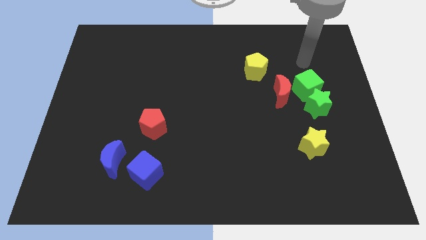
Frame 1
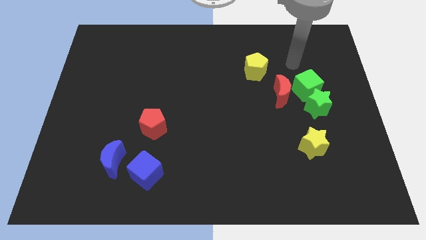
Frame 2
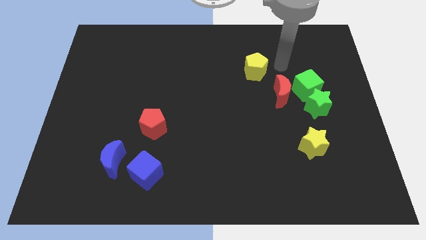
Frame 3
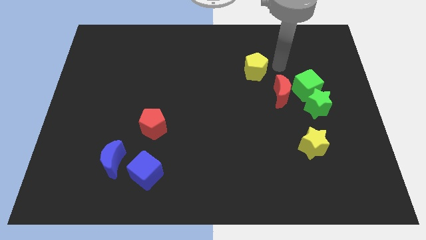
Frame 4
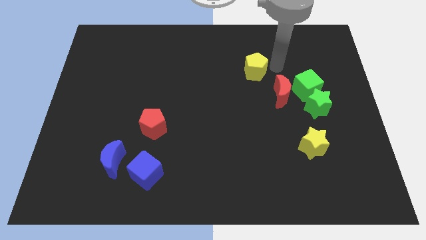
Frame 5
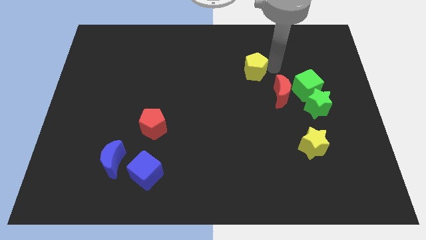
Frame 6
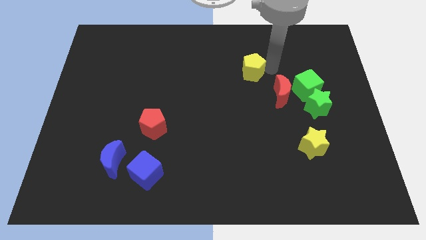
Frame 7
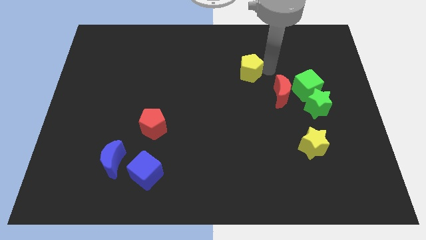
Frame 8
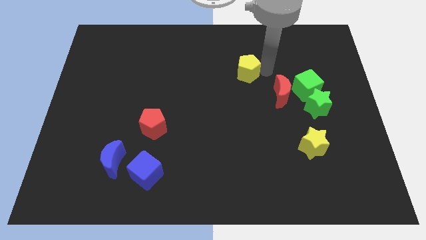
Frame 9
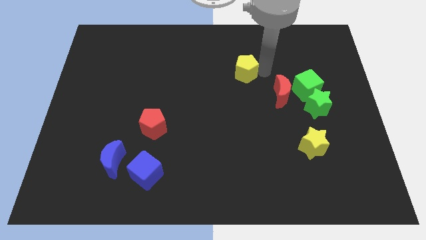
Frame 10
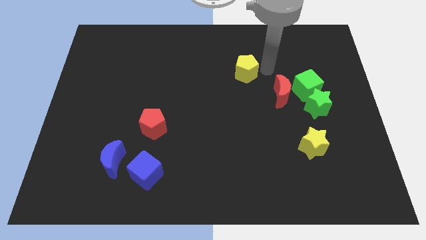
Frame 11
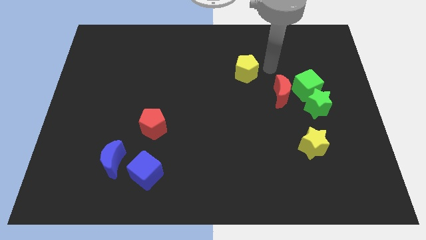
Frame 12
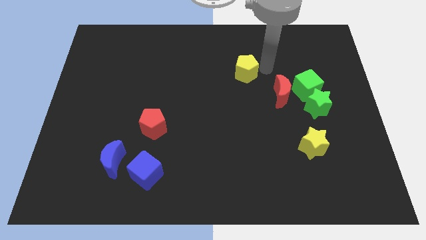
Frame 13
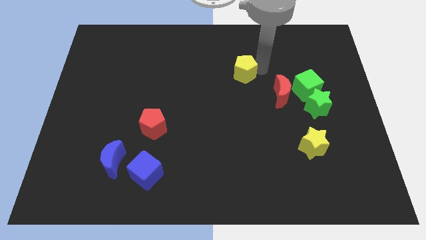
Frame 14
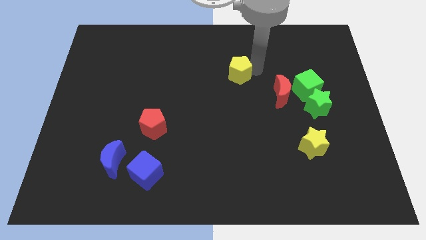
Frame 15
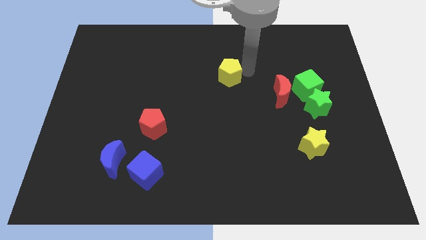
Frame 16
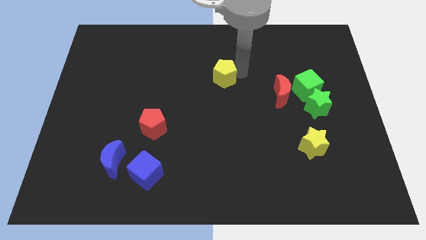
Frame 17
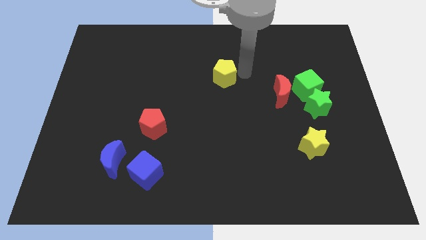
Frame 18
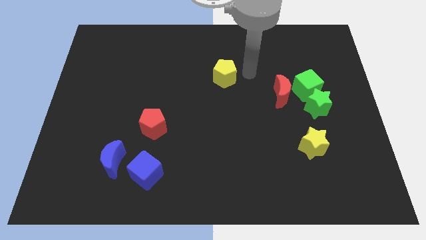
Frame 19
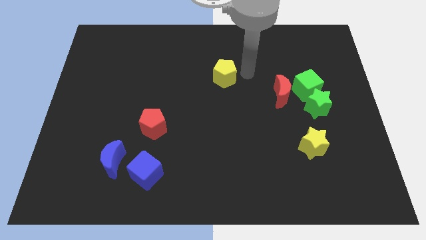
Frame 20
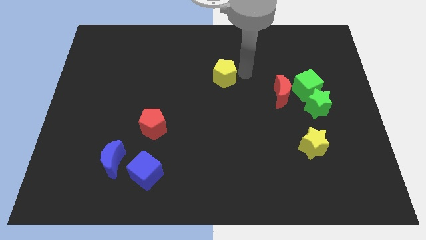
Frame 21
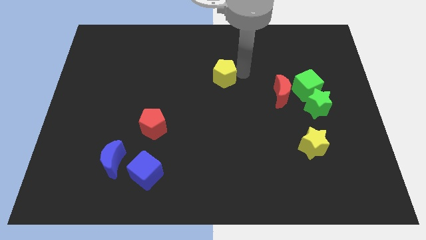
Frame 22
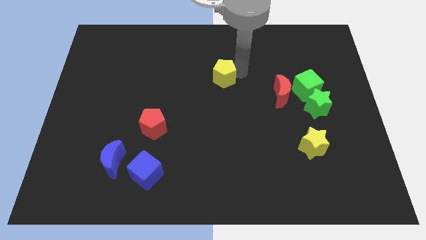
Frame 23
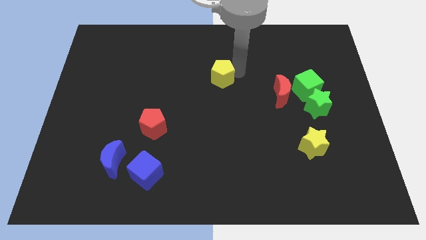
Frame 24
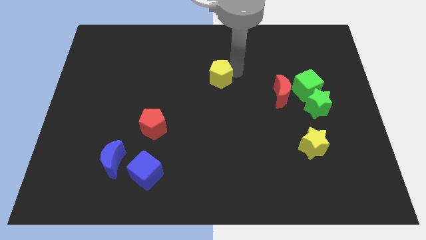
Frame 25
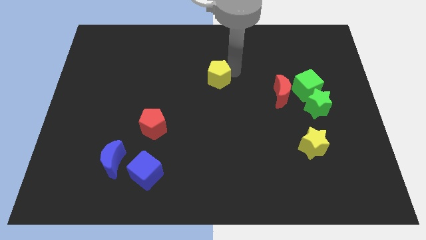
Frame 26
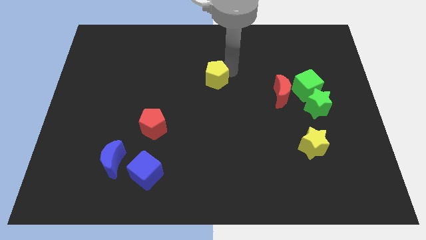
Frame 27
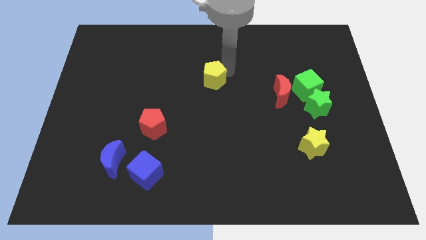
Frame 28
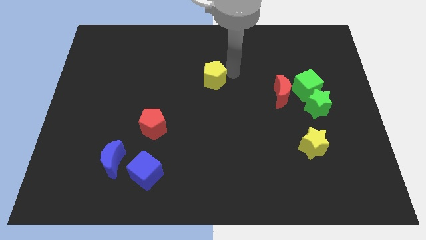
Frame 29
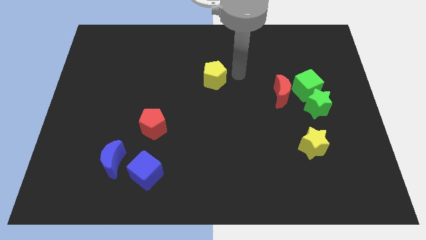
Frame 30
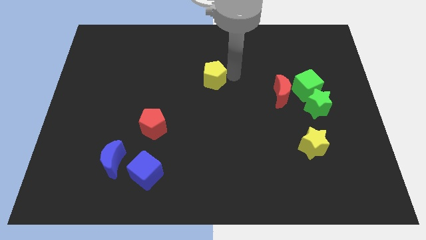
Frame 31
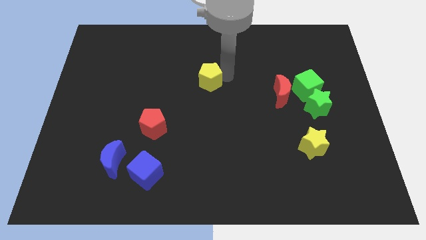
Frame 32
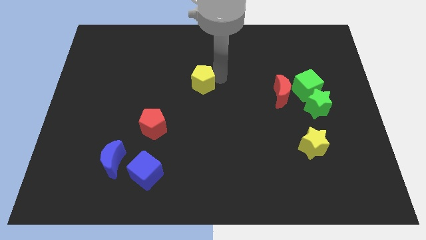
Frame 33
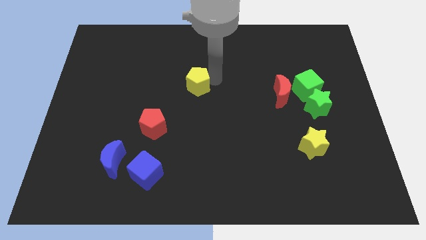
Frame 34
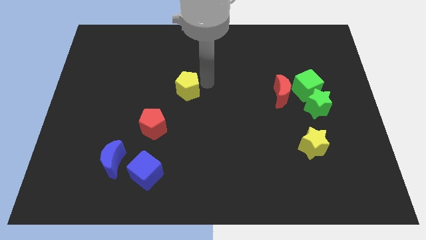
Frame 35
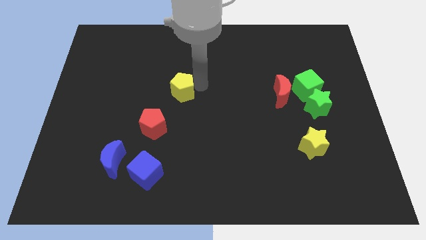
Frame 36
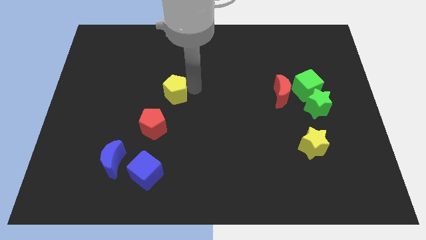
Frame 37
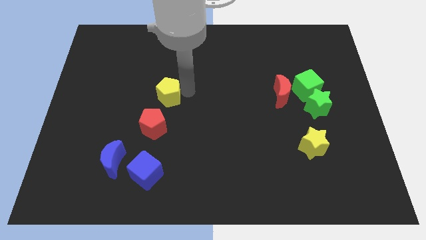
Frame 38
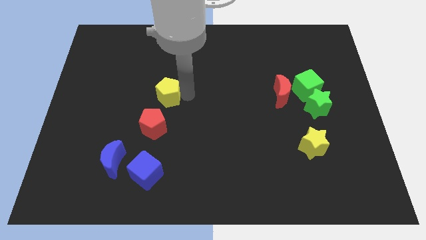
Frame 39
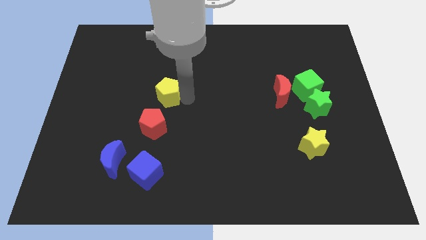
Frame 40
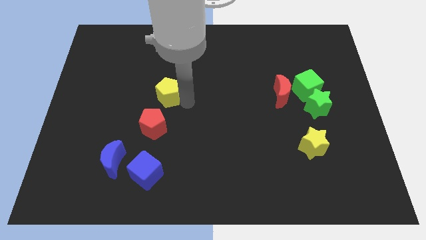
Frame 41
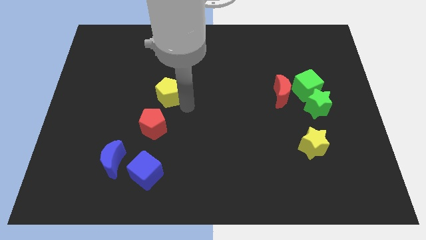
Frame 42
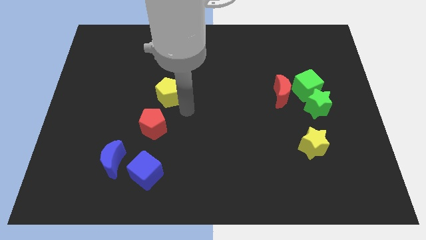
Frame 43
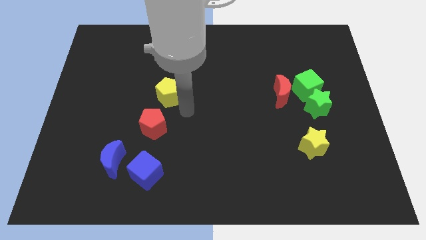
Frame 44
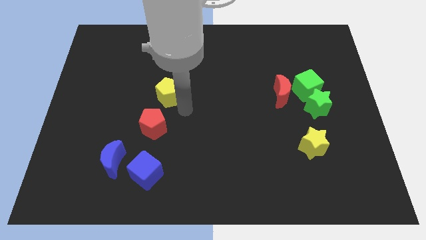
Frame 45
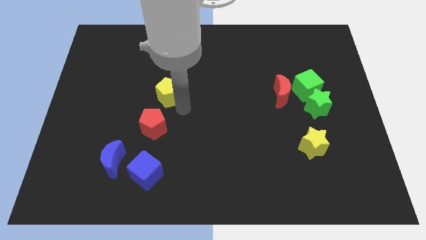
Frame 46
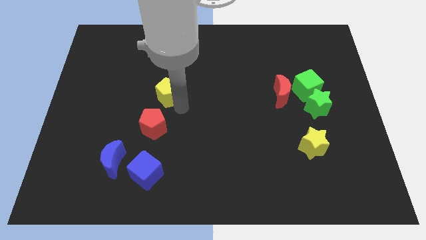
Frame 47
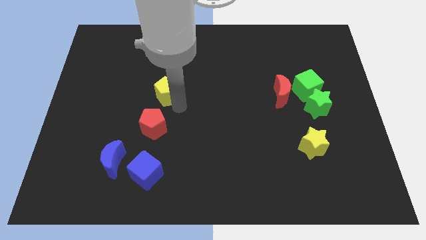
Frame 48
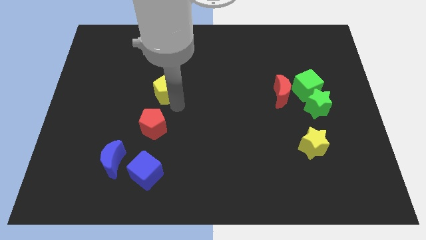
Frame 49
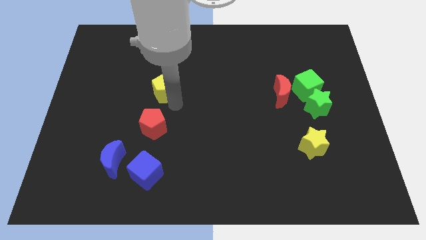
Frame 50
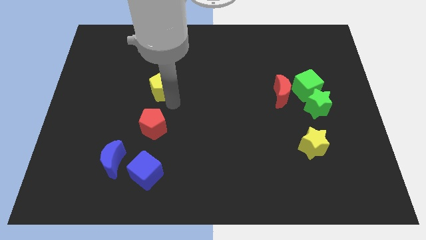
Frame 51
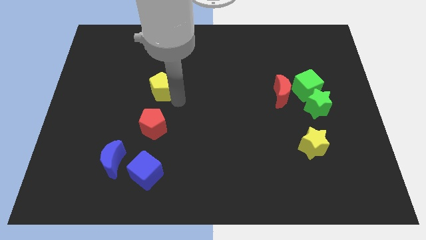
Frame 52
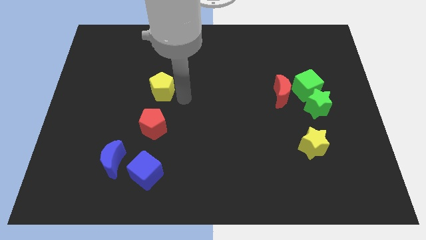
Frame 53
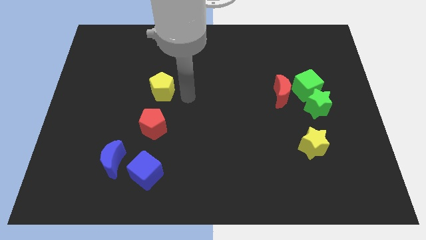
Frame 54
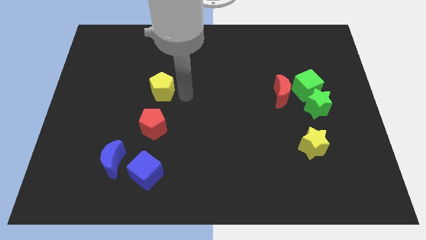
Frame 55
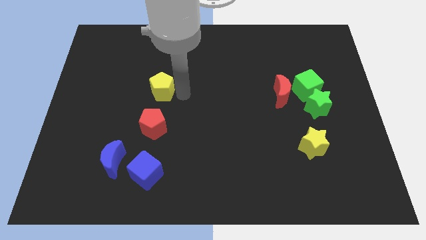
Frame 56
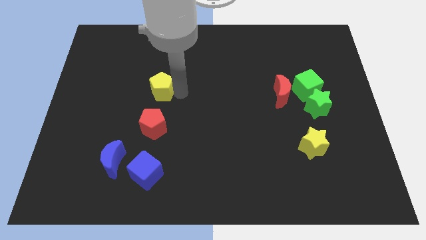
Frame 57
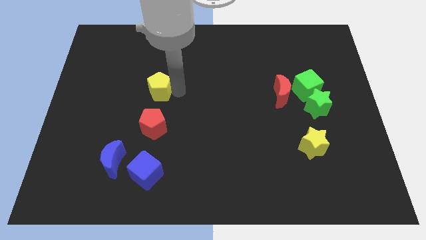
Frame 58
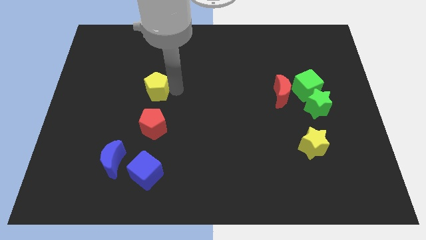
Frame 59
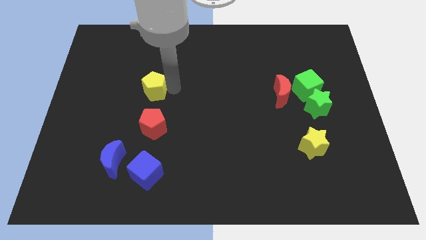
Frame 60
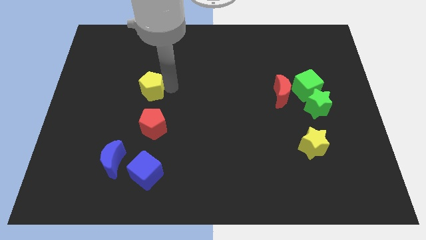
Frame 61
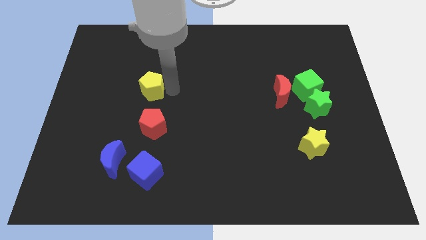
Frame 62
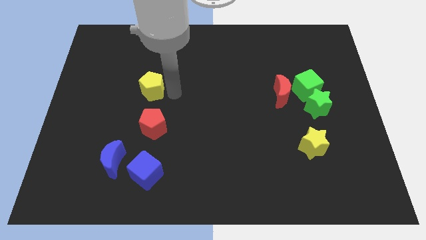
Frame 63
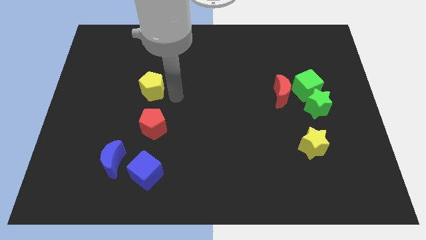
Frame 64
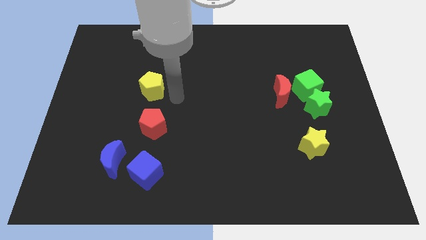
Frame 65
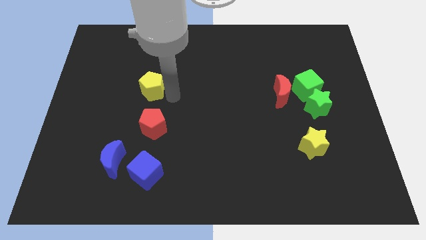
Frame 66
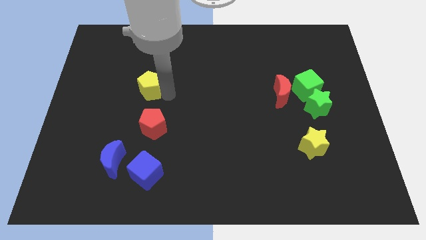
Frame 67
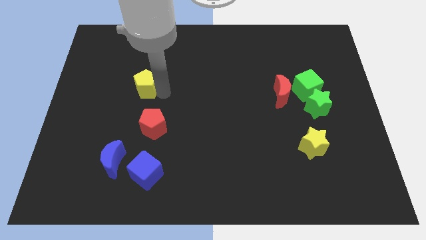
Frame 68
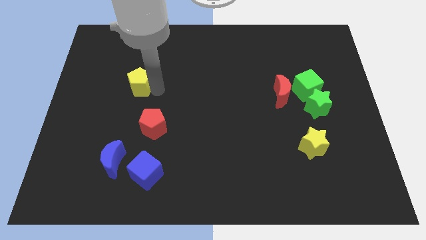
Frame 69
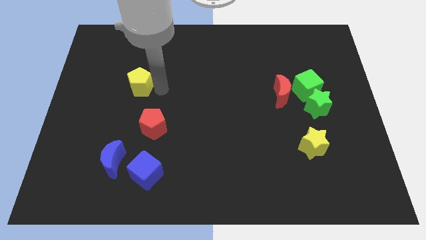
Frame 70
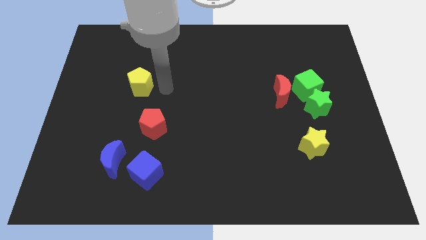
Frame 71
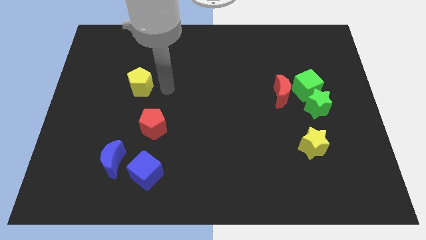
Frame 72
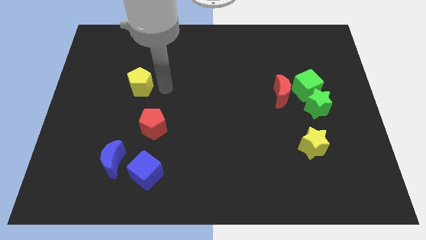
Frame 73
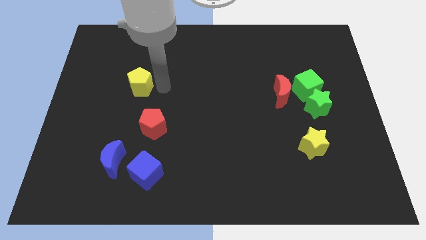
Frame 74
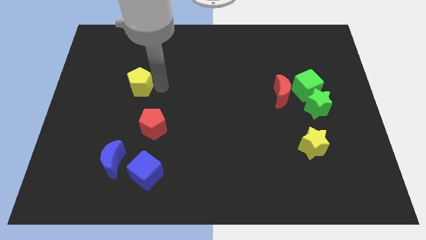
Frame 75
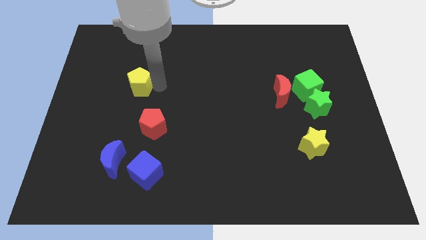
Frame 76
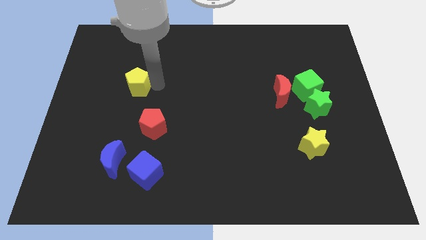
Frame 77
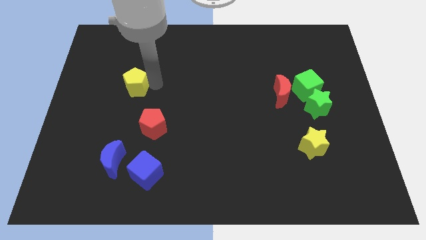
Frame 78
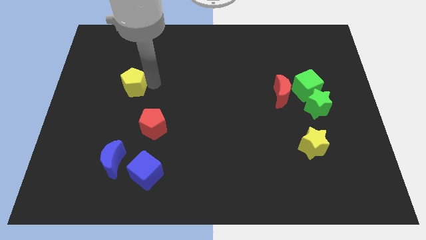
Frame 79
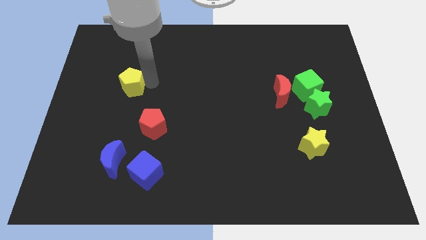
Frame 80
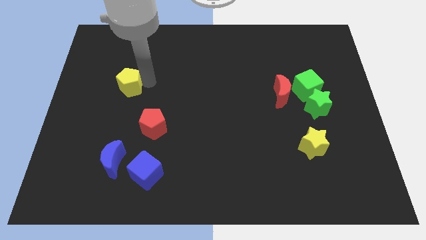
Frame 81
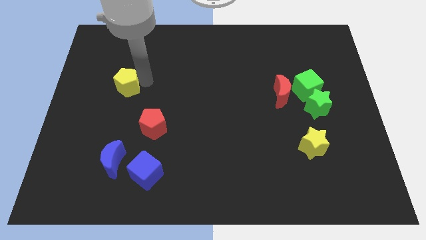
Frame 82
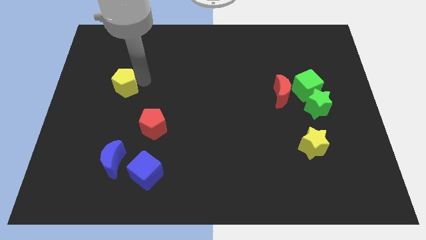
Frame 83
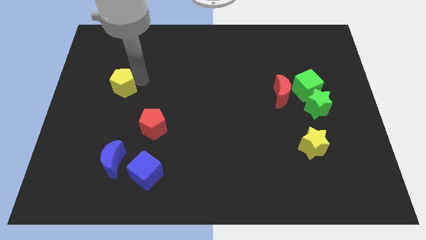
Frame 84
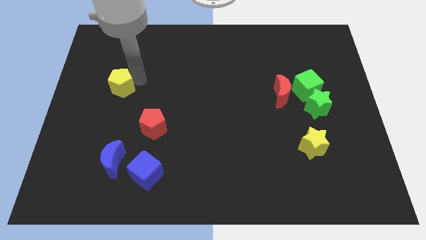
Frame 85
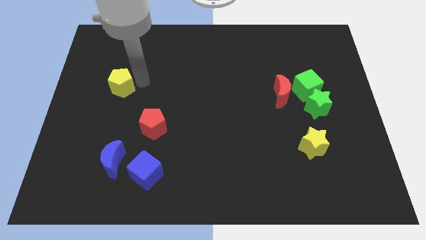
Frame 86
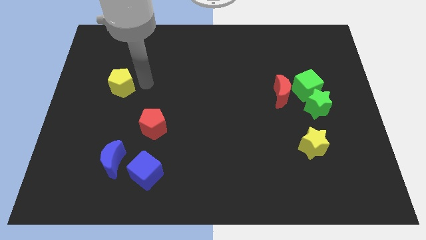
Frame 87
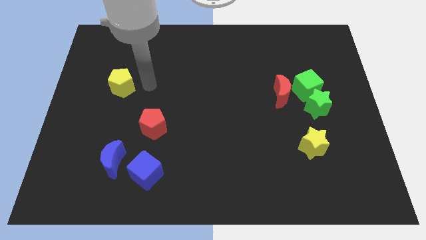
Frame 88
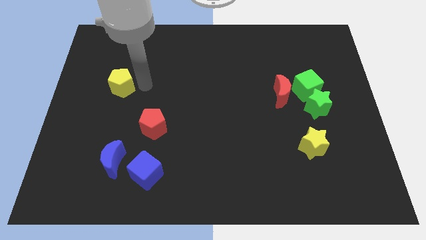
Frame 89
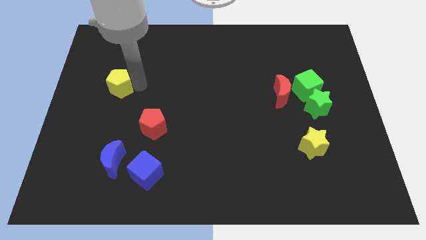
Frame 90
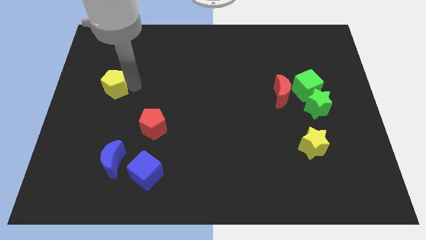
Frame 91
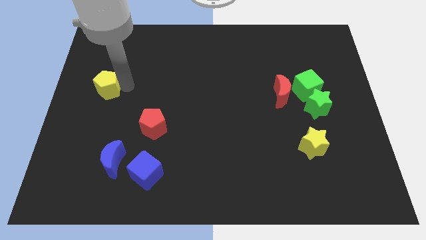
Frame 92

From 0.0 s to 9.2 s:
put the yellow pentagon to the left side
